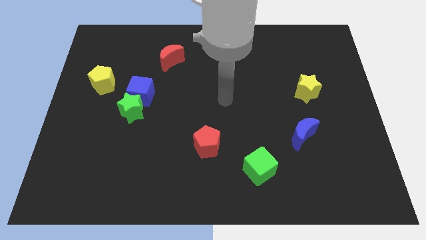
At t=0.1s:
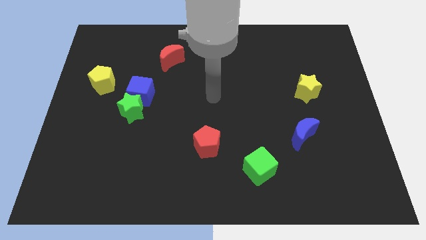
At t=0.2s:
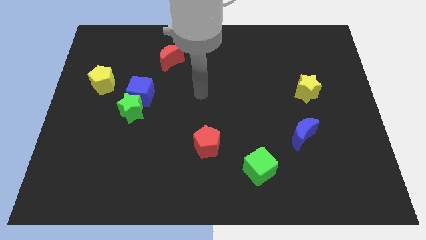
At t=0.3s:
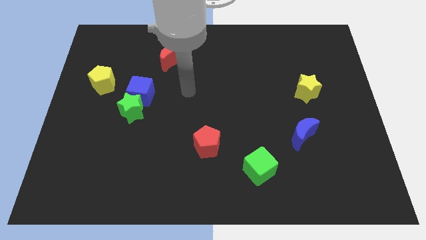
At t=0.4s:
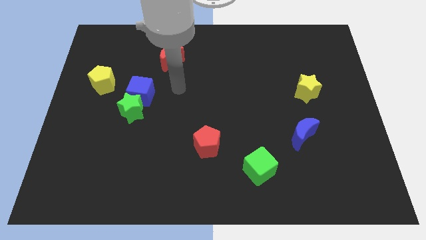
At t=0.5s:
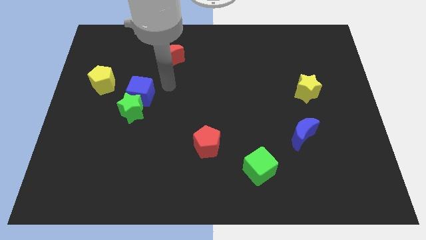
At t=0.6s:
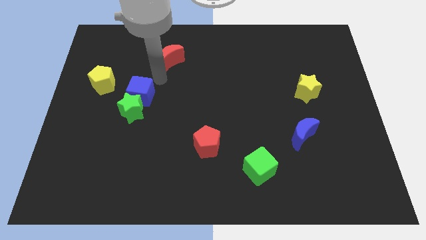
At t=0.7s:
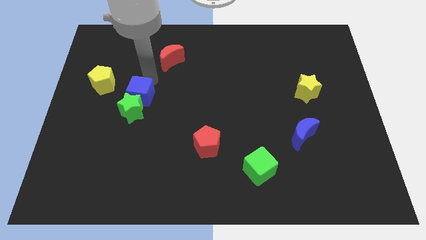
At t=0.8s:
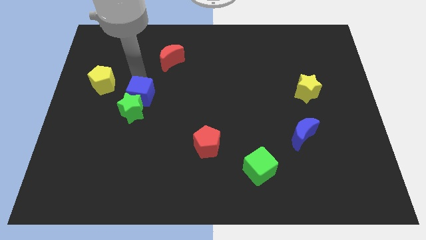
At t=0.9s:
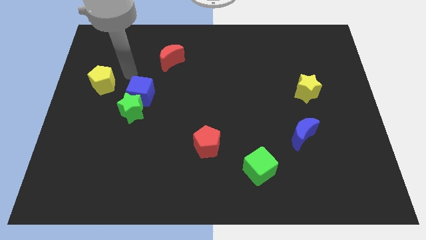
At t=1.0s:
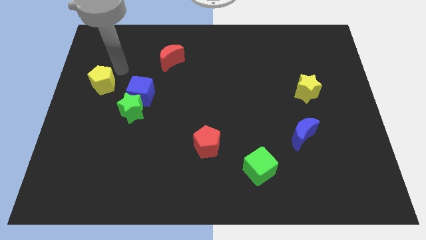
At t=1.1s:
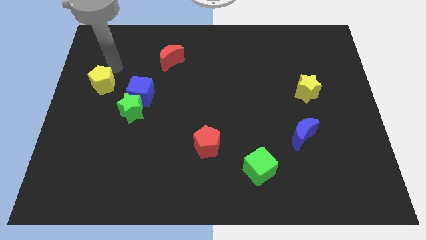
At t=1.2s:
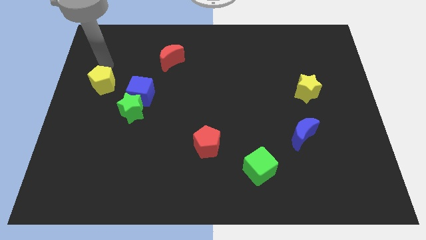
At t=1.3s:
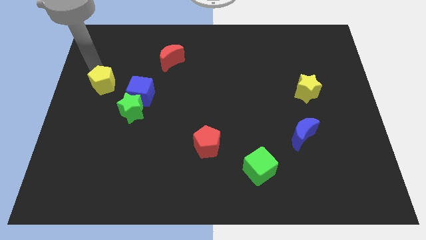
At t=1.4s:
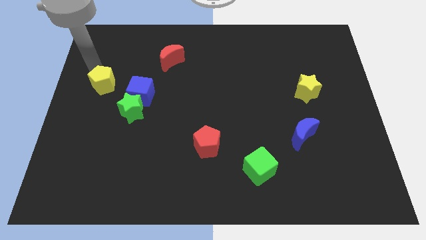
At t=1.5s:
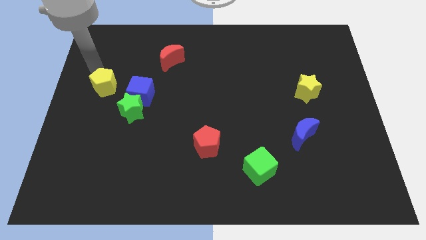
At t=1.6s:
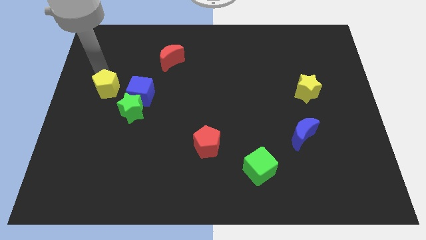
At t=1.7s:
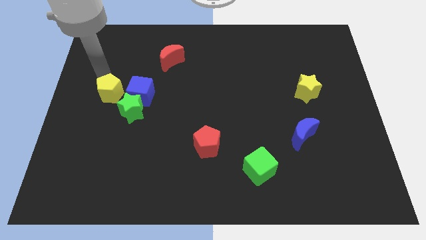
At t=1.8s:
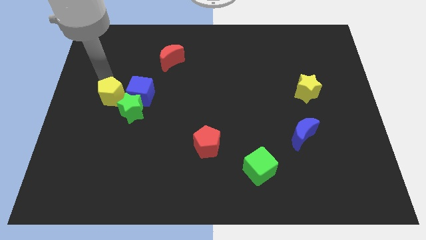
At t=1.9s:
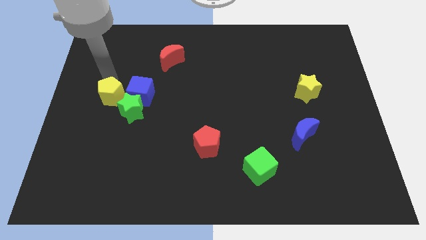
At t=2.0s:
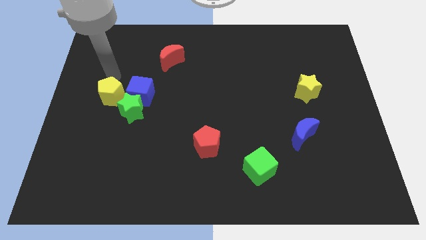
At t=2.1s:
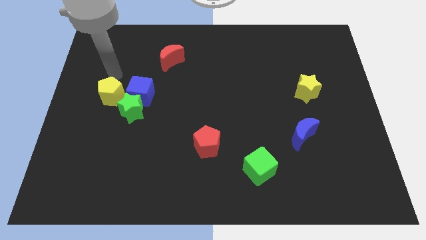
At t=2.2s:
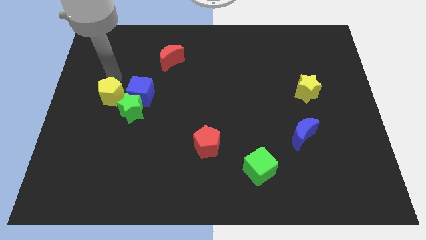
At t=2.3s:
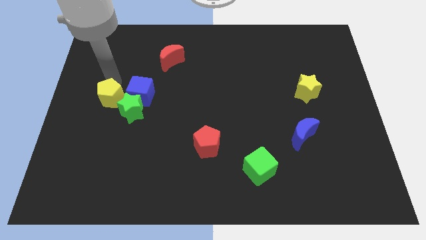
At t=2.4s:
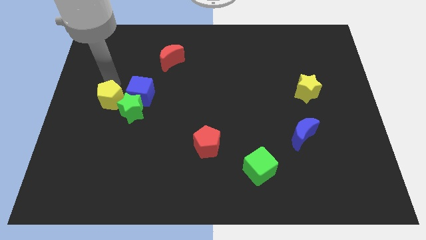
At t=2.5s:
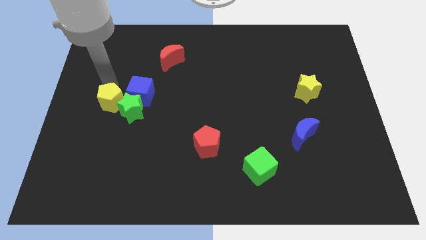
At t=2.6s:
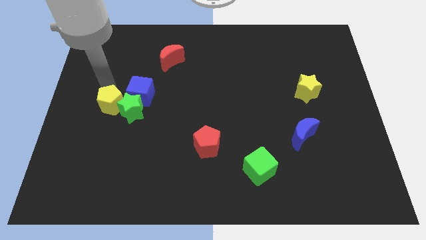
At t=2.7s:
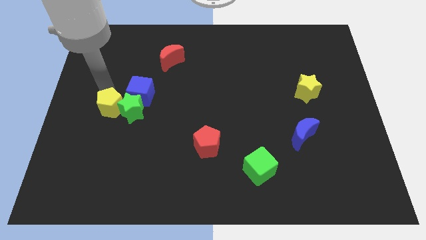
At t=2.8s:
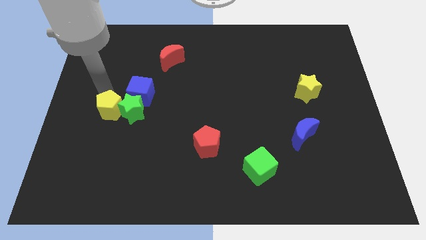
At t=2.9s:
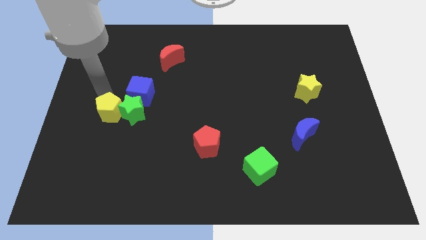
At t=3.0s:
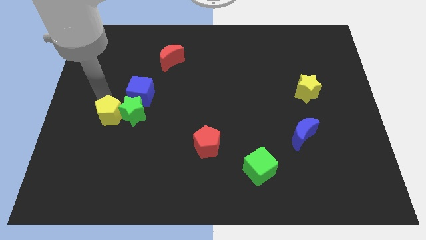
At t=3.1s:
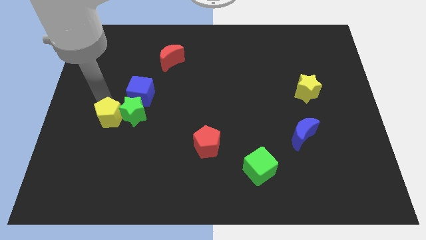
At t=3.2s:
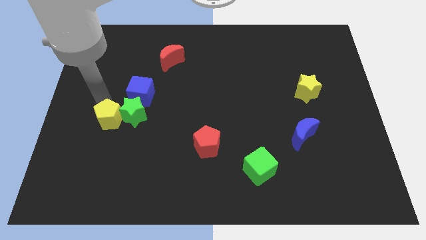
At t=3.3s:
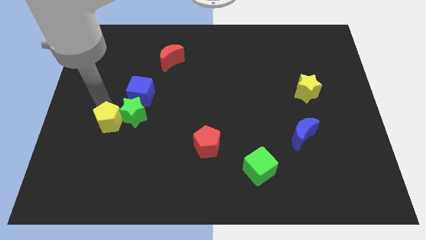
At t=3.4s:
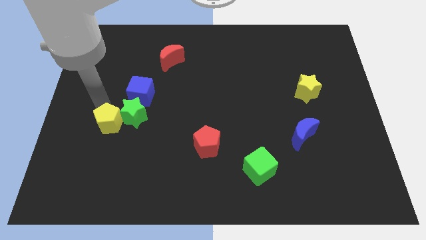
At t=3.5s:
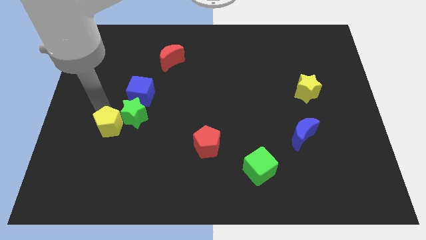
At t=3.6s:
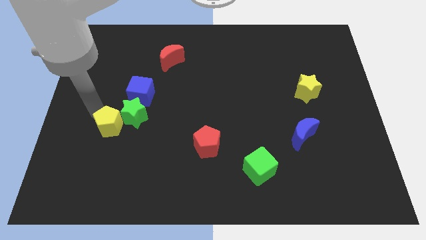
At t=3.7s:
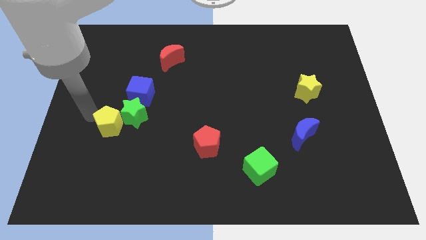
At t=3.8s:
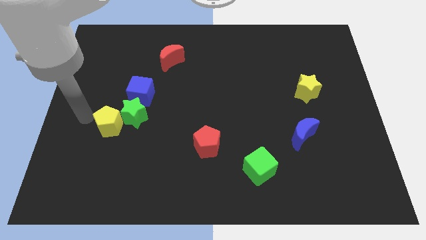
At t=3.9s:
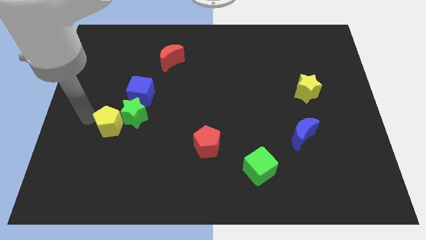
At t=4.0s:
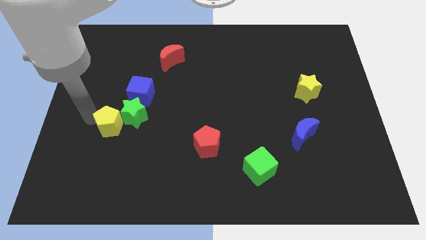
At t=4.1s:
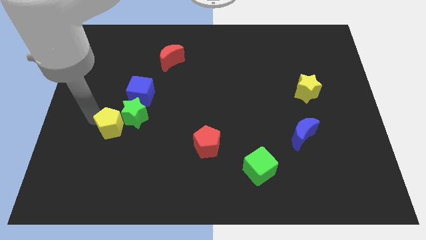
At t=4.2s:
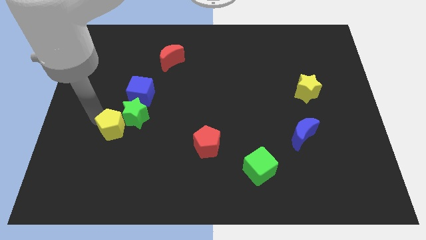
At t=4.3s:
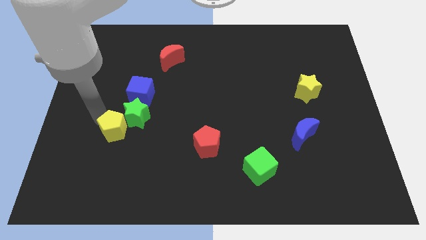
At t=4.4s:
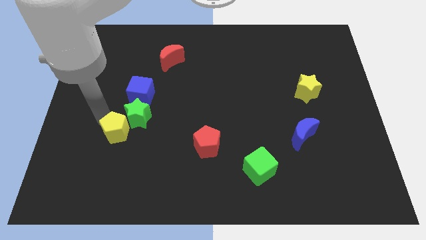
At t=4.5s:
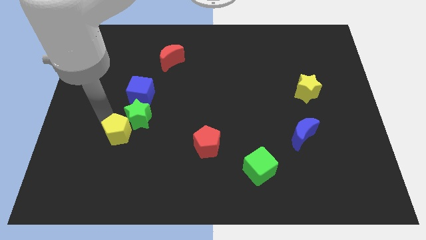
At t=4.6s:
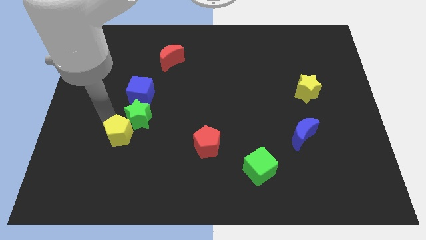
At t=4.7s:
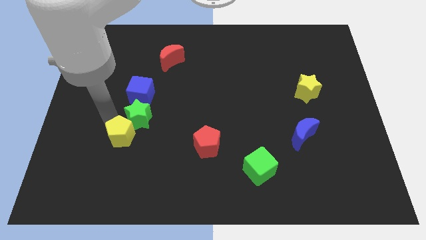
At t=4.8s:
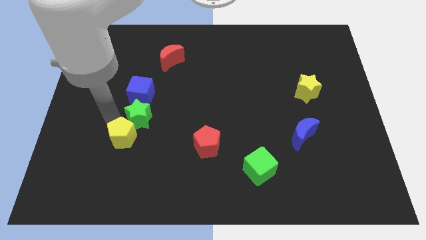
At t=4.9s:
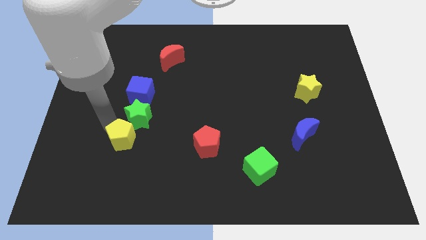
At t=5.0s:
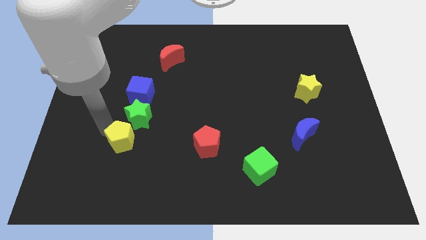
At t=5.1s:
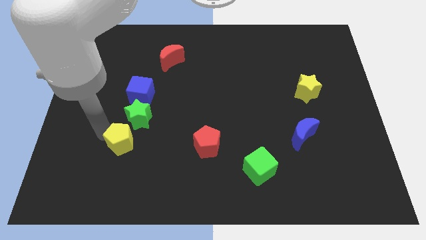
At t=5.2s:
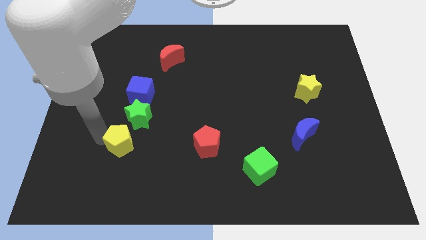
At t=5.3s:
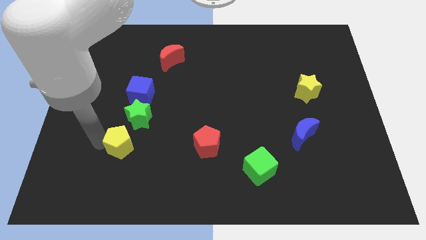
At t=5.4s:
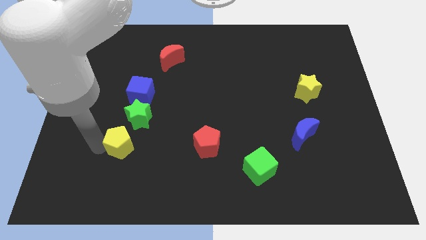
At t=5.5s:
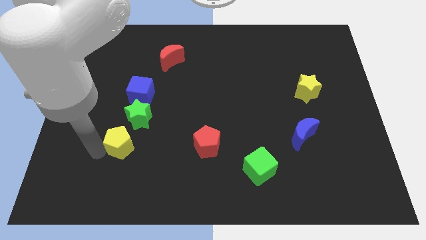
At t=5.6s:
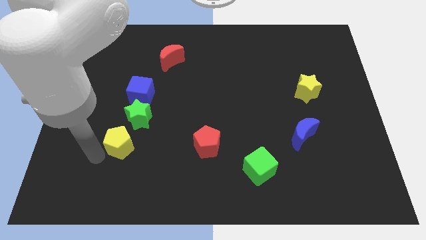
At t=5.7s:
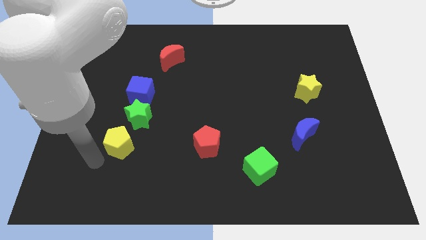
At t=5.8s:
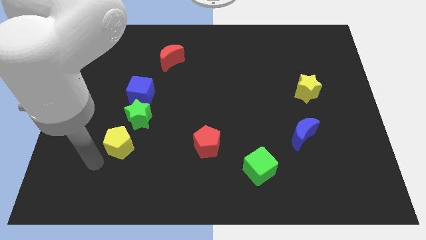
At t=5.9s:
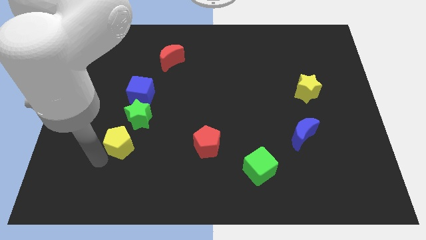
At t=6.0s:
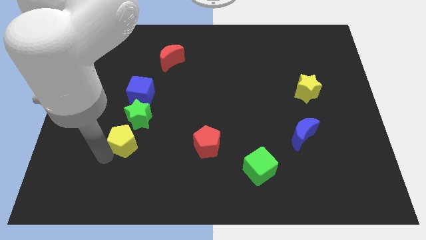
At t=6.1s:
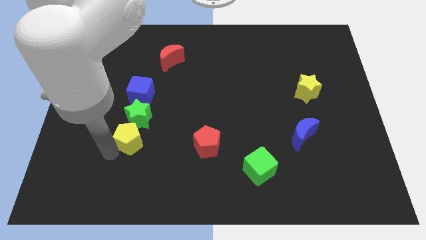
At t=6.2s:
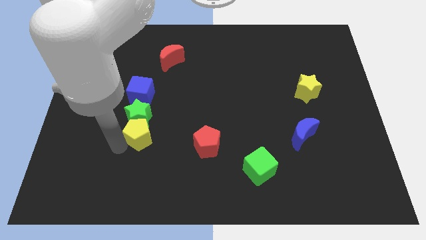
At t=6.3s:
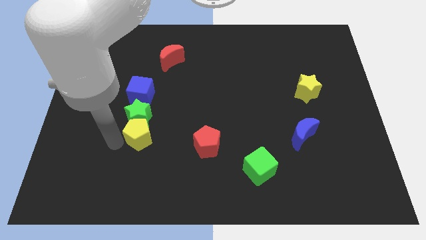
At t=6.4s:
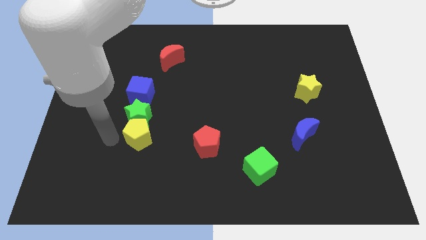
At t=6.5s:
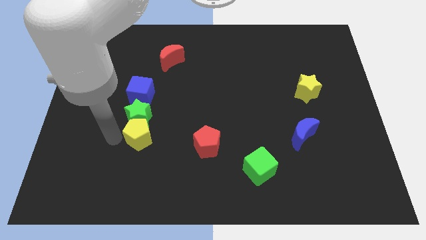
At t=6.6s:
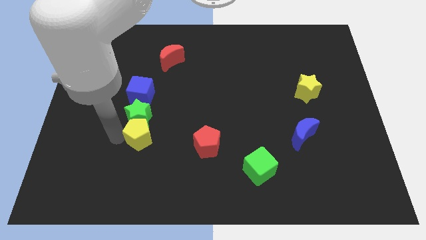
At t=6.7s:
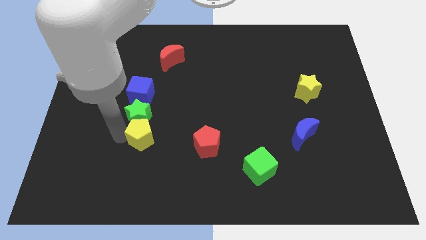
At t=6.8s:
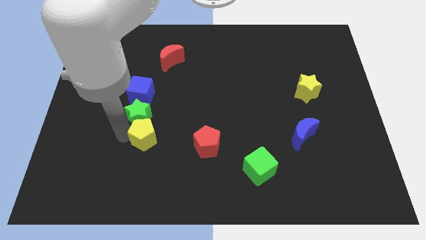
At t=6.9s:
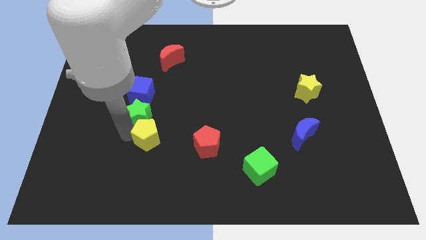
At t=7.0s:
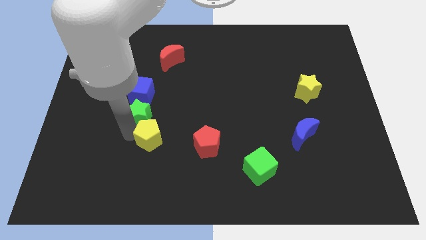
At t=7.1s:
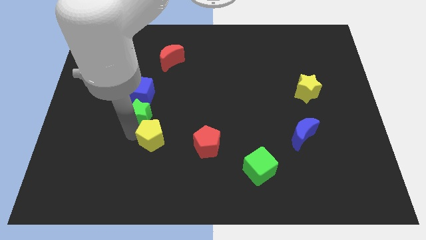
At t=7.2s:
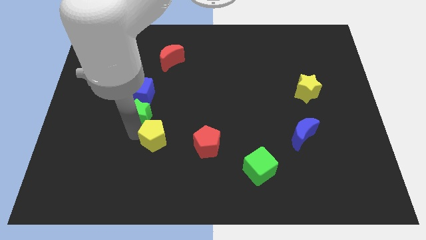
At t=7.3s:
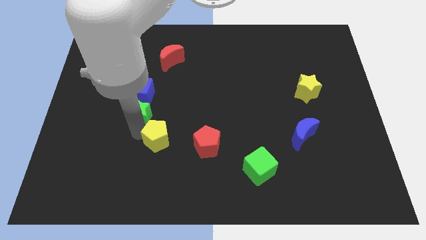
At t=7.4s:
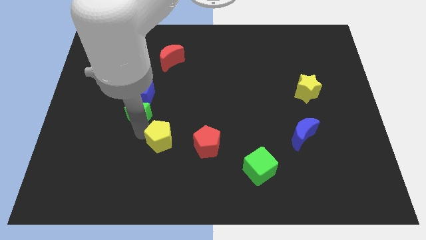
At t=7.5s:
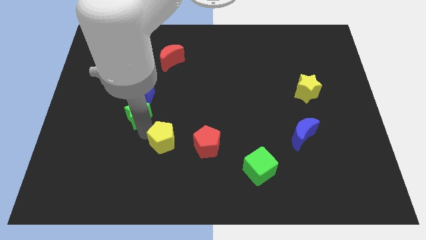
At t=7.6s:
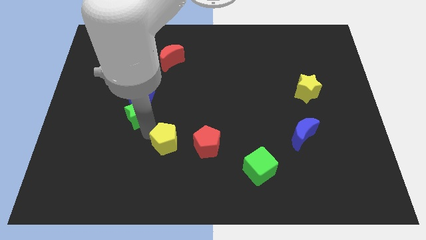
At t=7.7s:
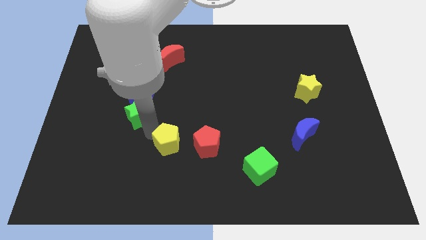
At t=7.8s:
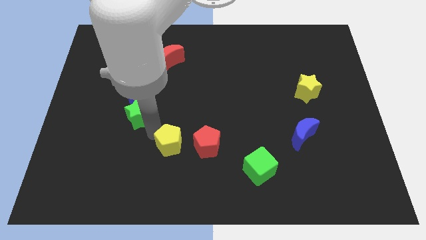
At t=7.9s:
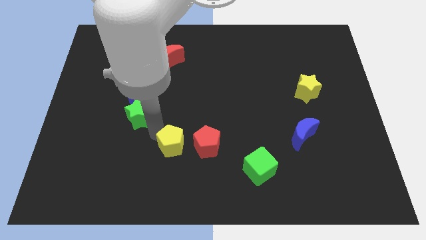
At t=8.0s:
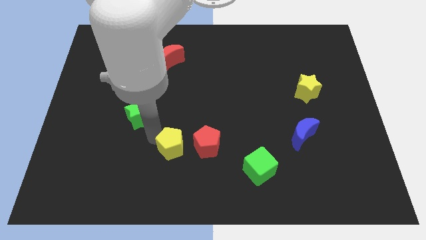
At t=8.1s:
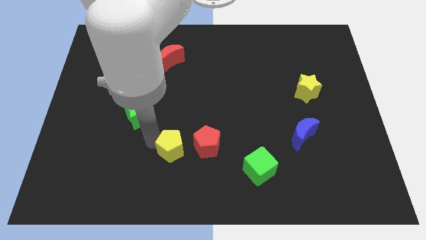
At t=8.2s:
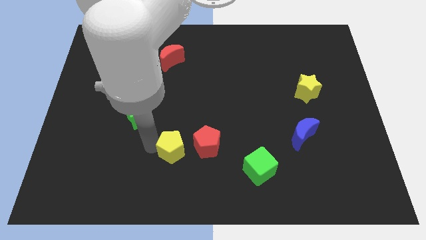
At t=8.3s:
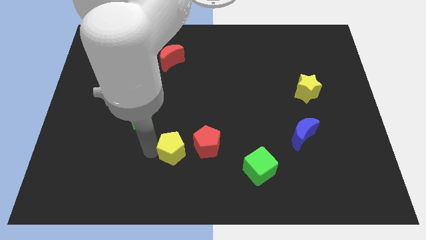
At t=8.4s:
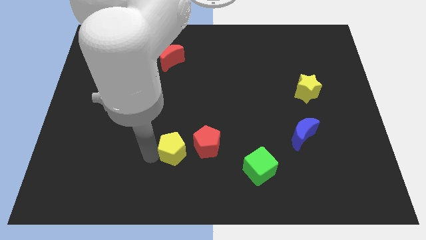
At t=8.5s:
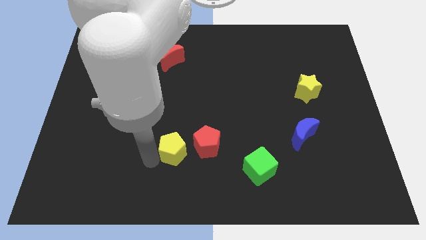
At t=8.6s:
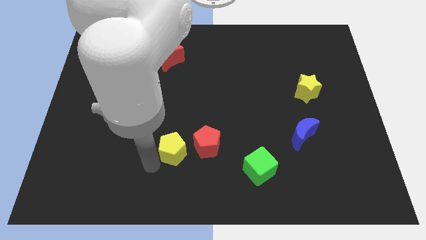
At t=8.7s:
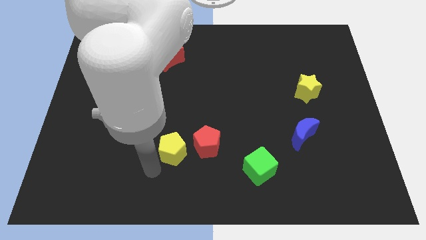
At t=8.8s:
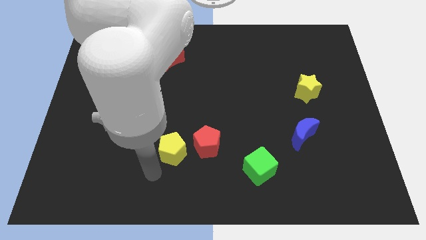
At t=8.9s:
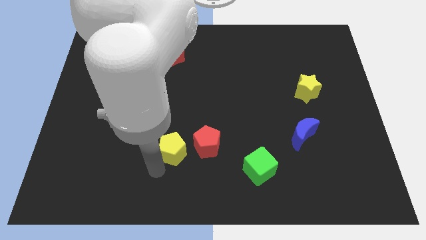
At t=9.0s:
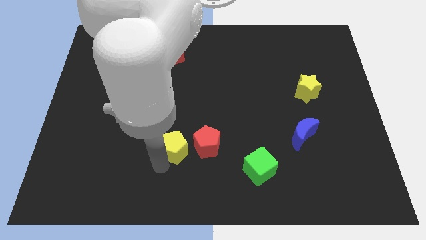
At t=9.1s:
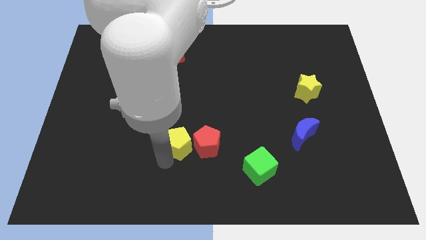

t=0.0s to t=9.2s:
move the yellow pentagon to the red pentagon
